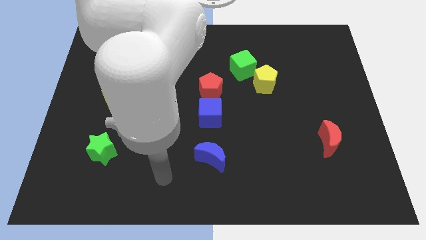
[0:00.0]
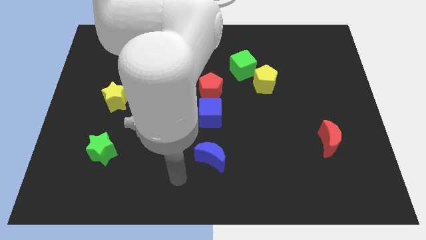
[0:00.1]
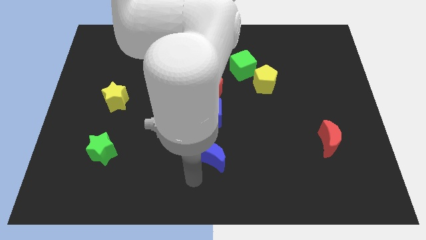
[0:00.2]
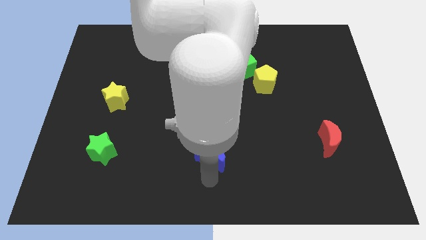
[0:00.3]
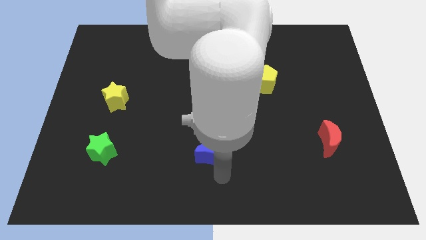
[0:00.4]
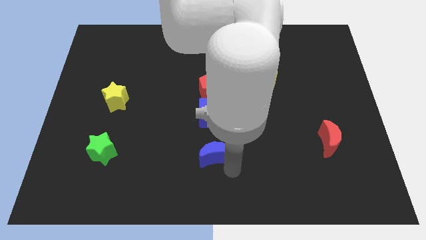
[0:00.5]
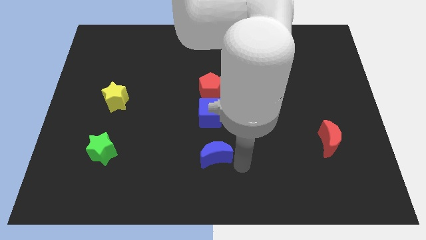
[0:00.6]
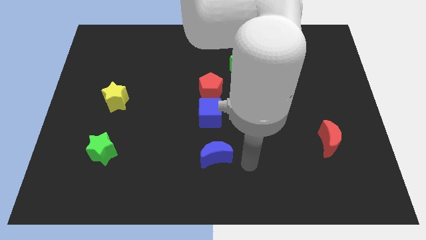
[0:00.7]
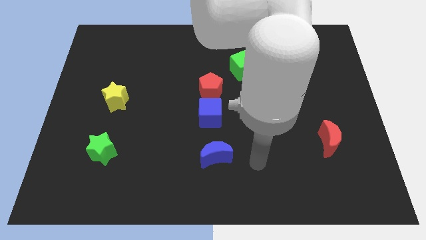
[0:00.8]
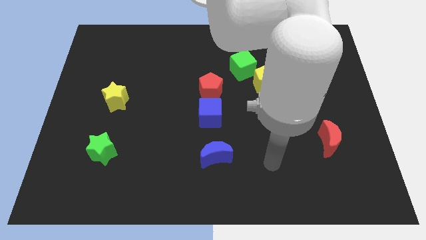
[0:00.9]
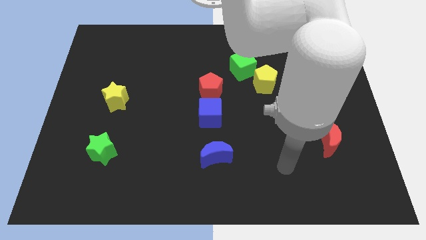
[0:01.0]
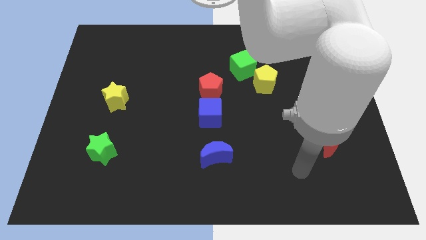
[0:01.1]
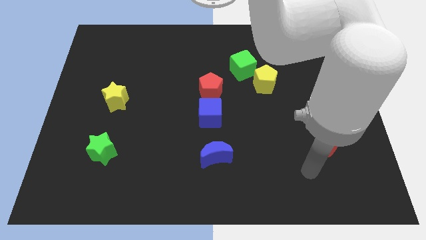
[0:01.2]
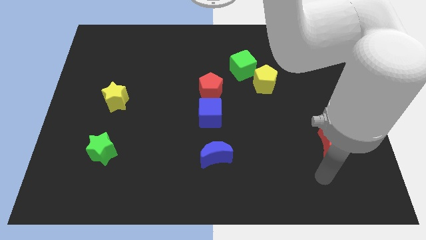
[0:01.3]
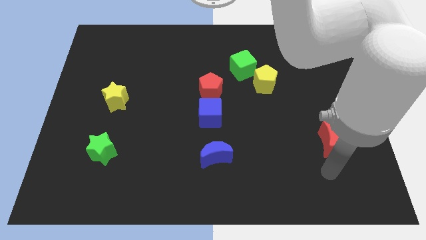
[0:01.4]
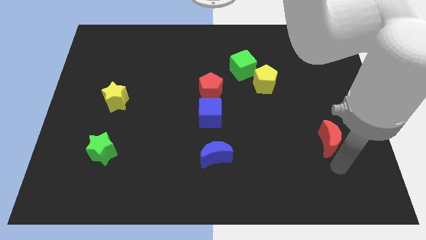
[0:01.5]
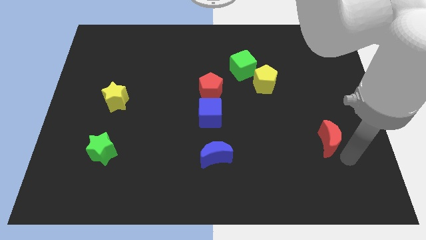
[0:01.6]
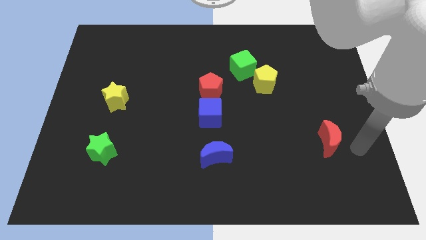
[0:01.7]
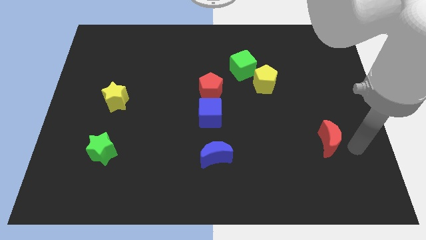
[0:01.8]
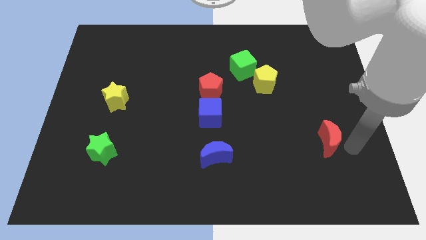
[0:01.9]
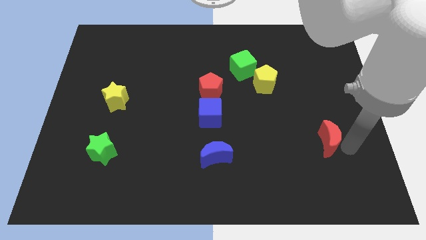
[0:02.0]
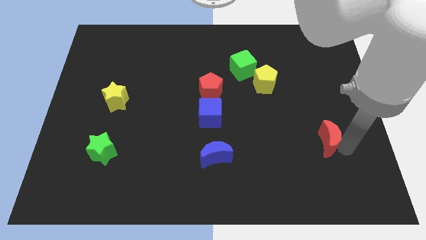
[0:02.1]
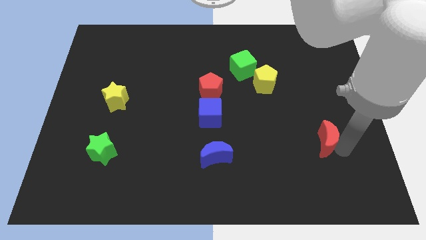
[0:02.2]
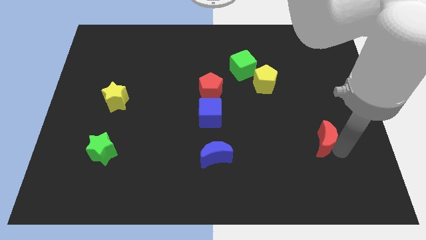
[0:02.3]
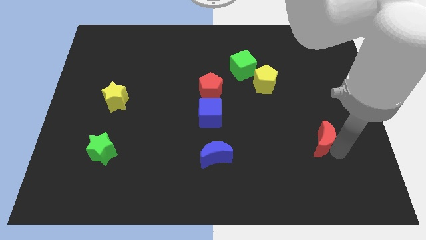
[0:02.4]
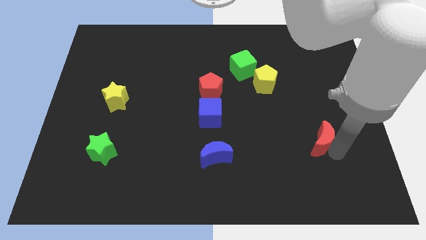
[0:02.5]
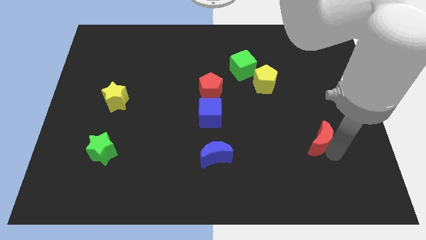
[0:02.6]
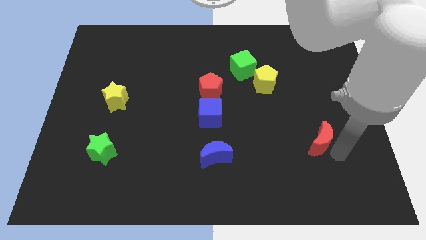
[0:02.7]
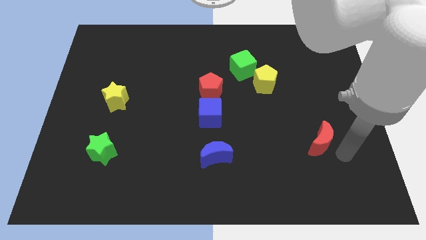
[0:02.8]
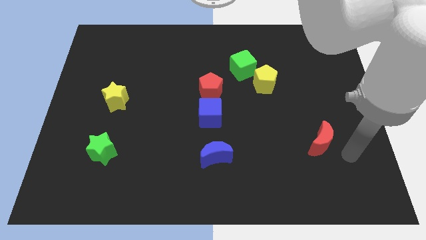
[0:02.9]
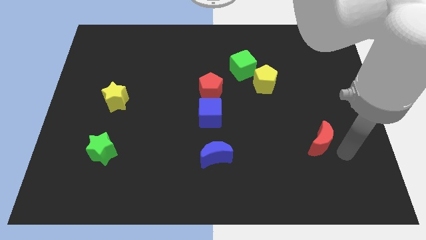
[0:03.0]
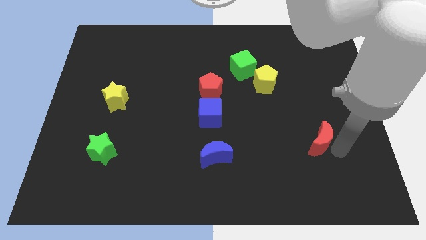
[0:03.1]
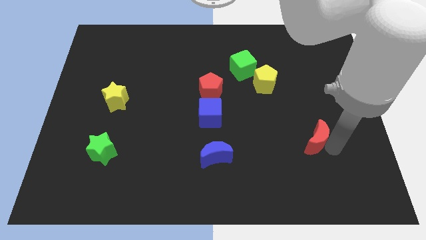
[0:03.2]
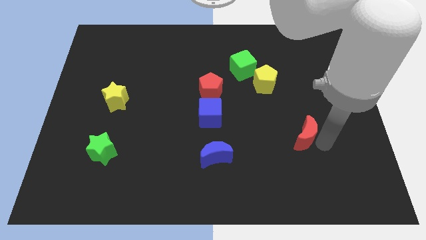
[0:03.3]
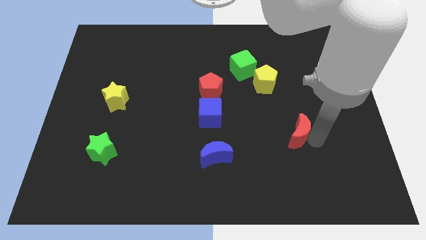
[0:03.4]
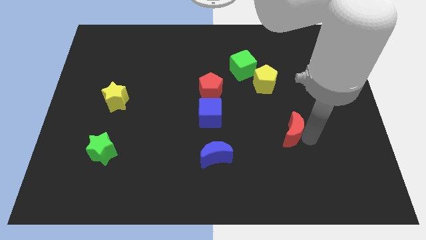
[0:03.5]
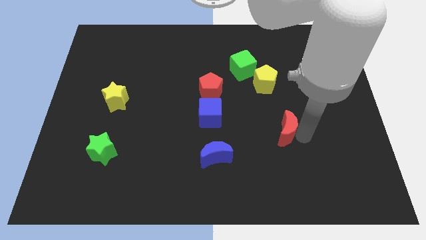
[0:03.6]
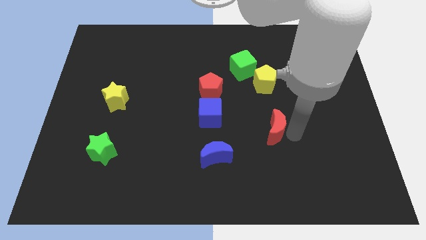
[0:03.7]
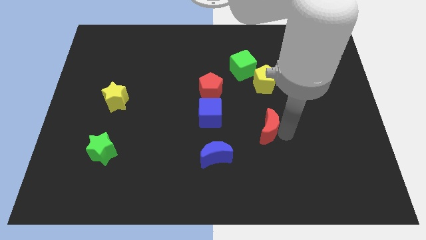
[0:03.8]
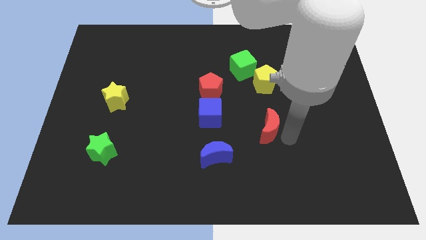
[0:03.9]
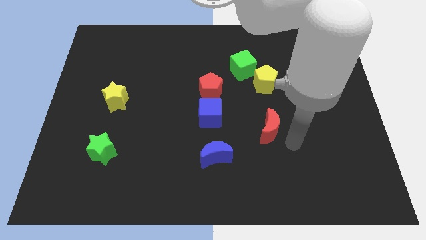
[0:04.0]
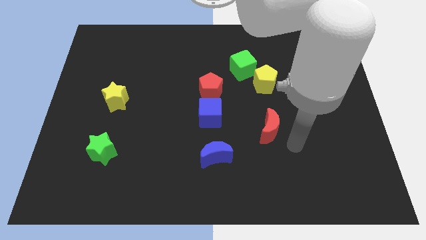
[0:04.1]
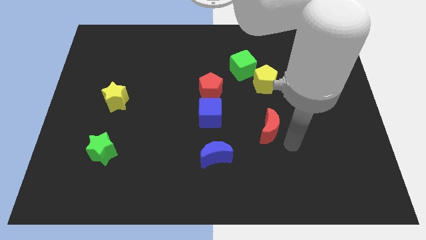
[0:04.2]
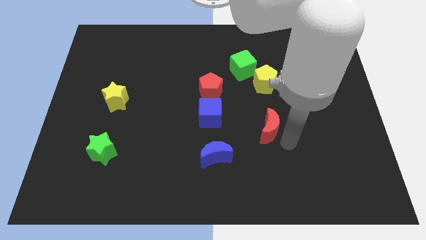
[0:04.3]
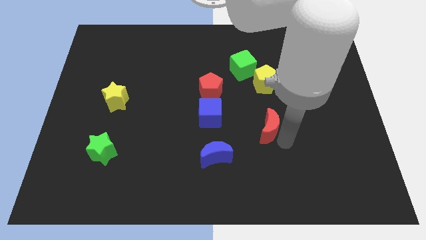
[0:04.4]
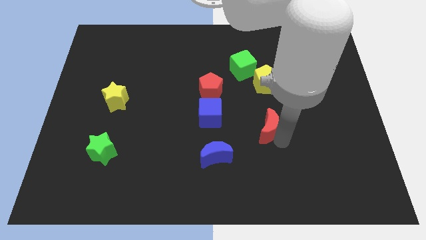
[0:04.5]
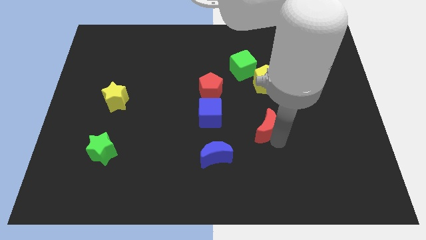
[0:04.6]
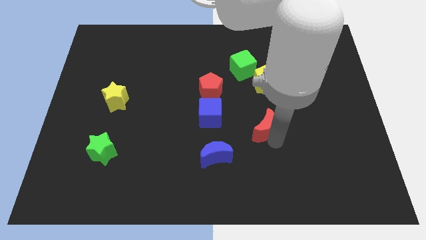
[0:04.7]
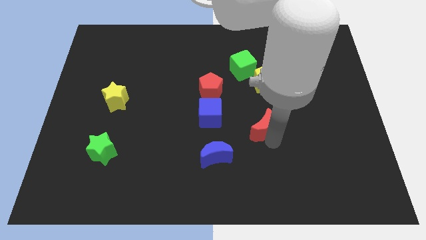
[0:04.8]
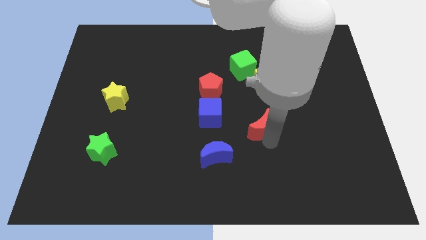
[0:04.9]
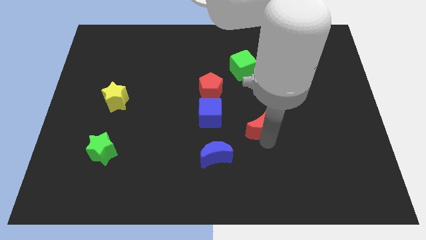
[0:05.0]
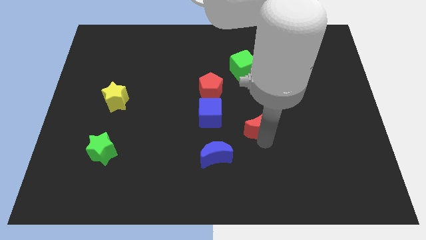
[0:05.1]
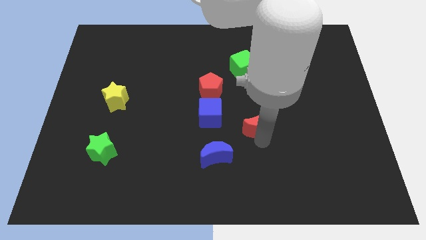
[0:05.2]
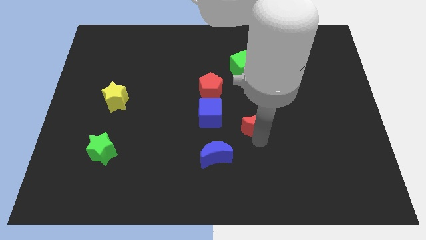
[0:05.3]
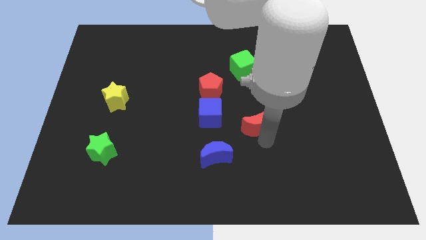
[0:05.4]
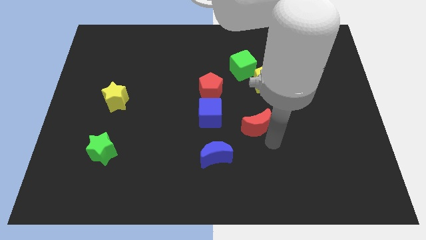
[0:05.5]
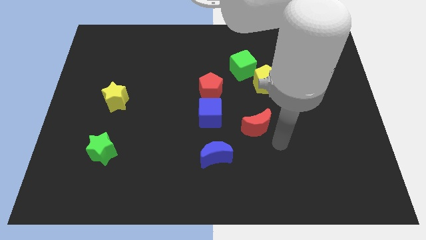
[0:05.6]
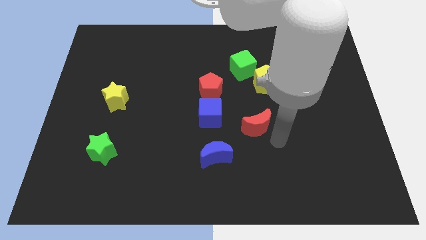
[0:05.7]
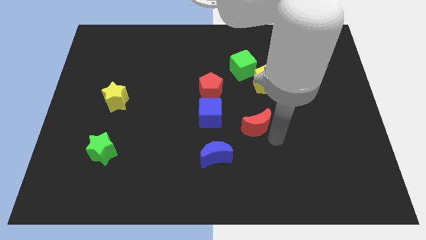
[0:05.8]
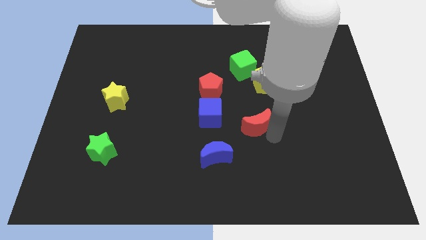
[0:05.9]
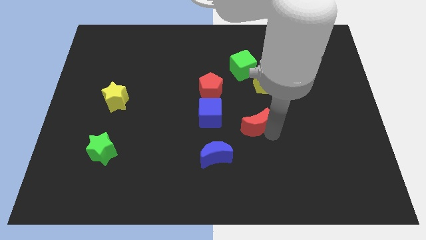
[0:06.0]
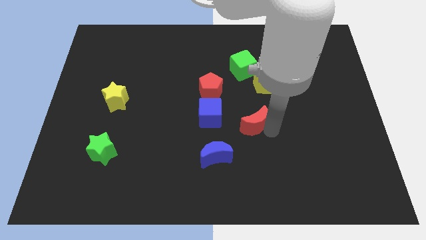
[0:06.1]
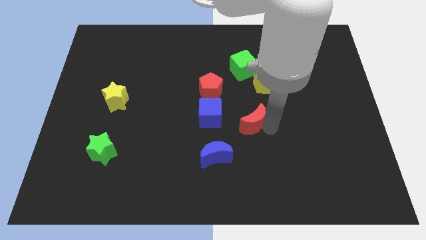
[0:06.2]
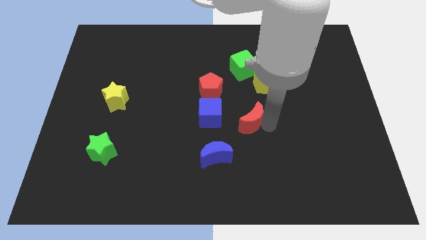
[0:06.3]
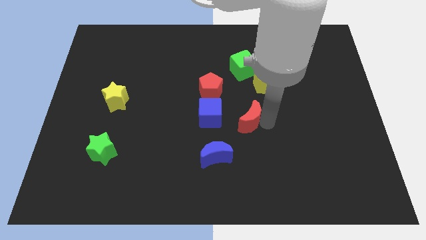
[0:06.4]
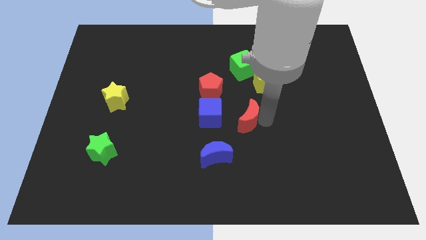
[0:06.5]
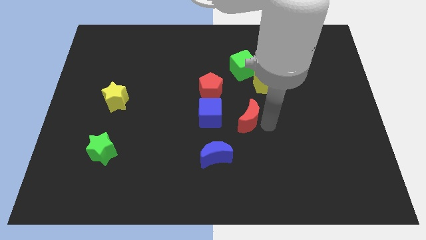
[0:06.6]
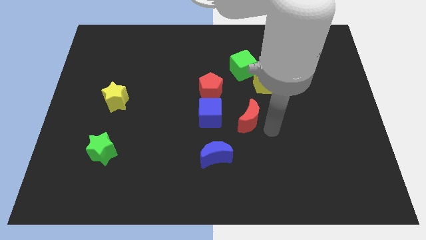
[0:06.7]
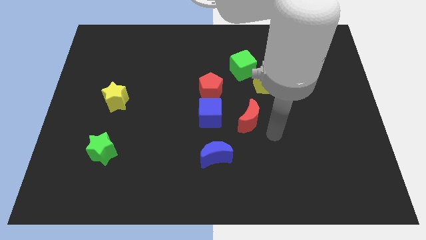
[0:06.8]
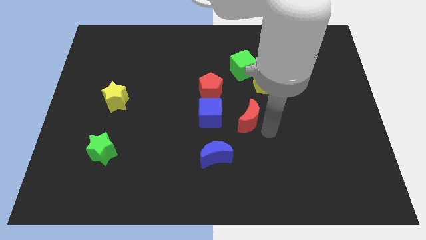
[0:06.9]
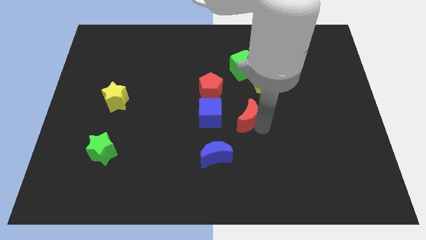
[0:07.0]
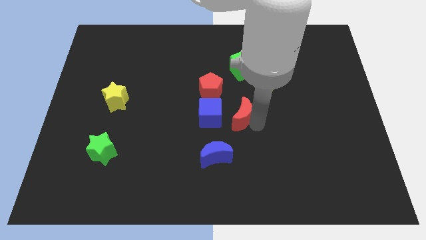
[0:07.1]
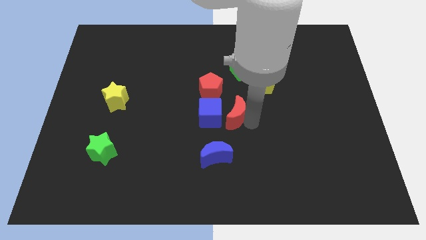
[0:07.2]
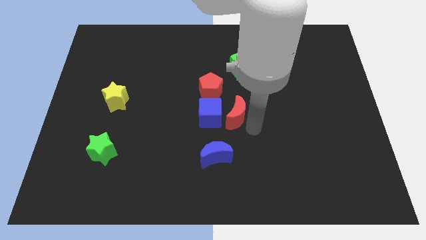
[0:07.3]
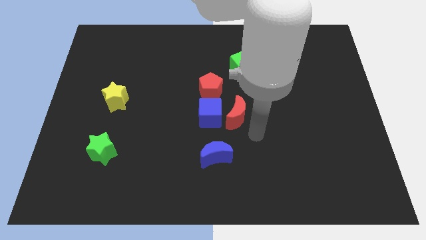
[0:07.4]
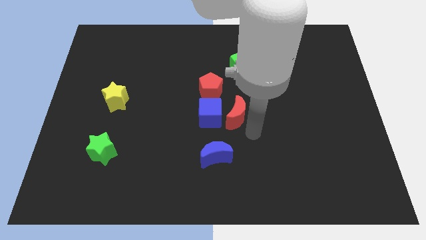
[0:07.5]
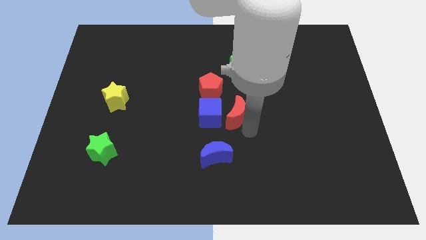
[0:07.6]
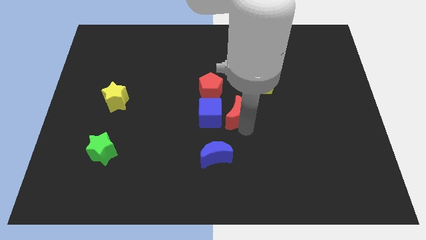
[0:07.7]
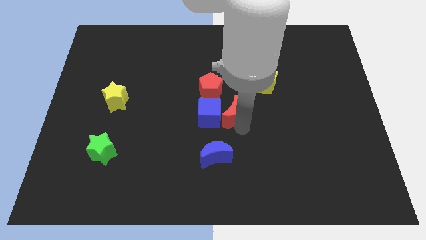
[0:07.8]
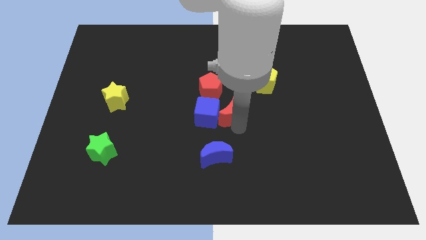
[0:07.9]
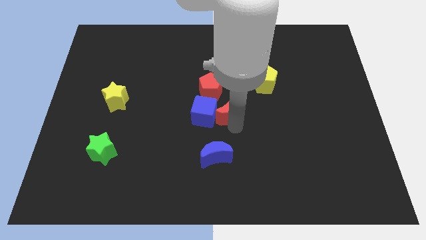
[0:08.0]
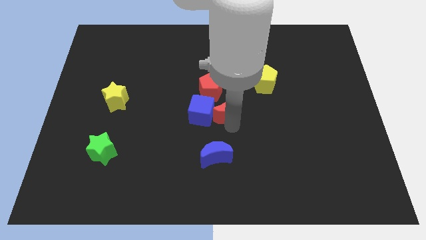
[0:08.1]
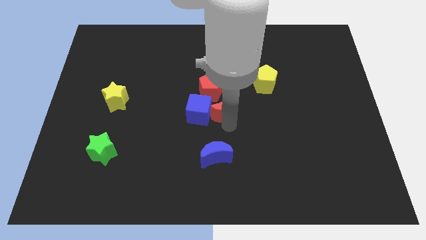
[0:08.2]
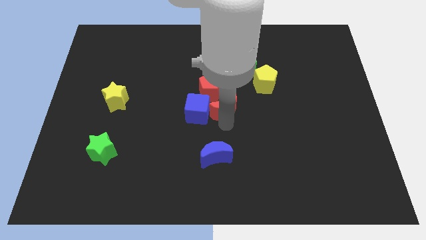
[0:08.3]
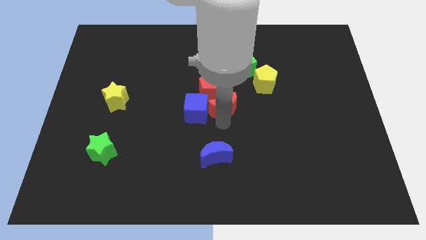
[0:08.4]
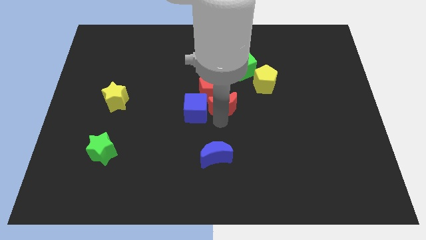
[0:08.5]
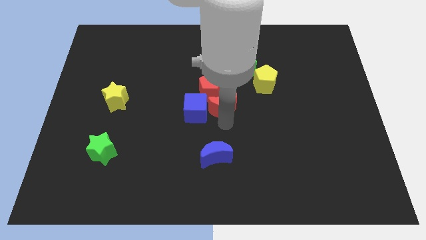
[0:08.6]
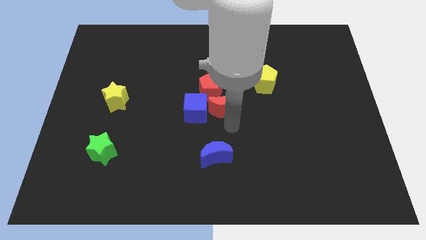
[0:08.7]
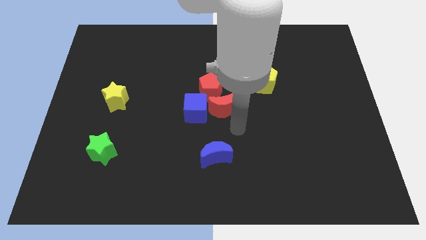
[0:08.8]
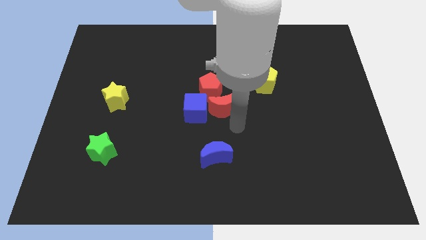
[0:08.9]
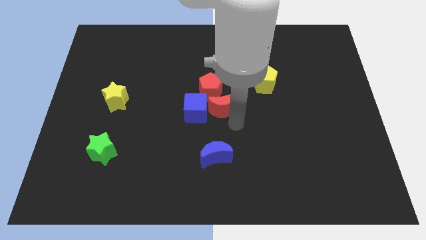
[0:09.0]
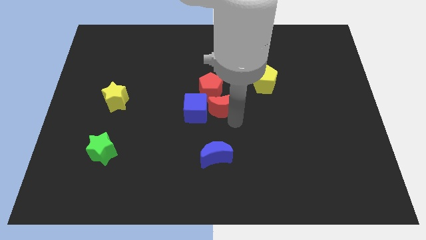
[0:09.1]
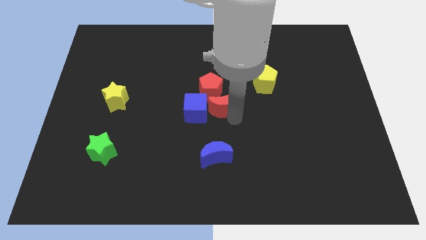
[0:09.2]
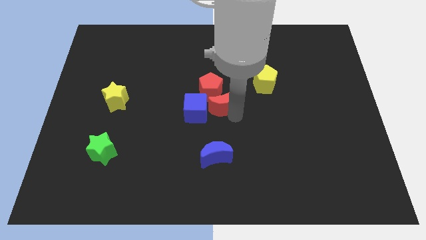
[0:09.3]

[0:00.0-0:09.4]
put the red moon close to the red pentagon
